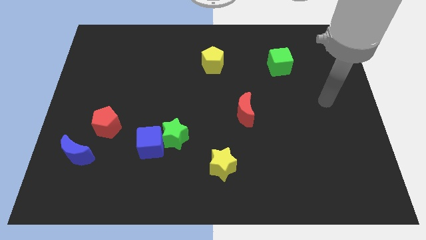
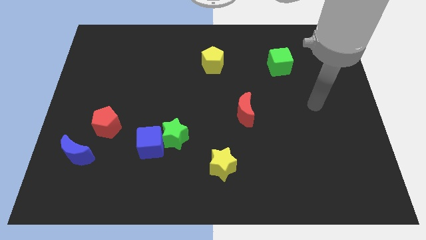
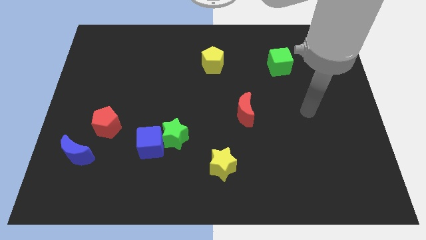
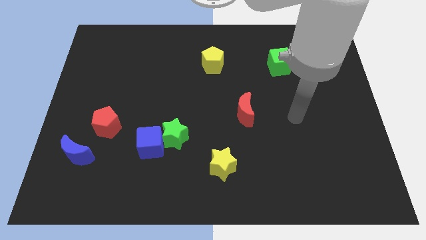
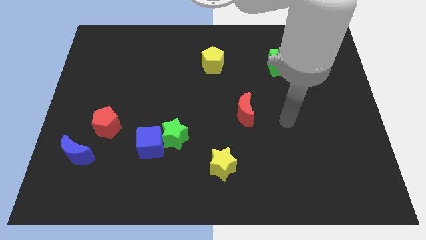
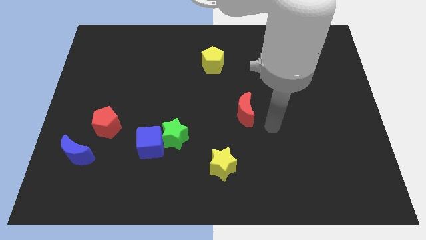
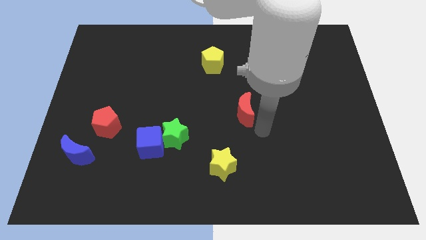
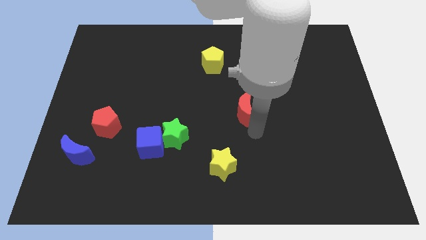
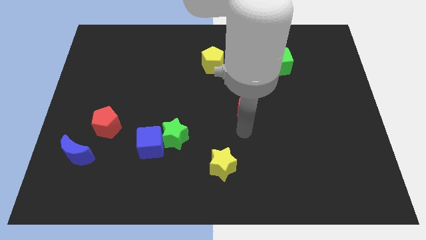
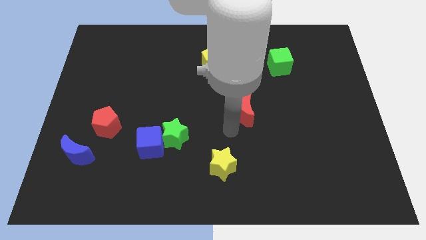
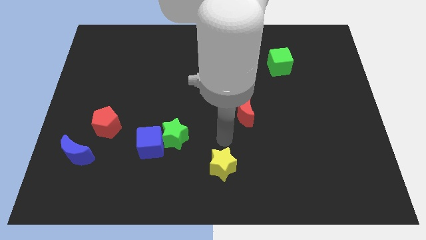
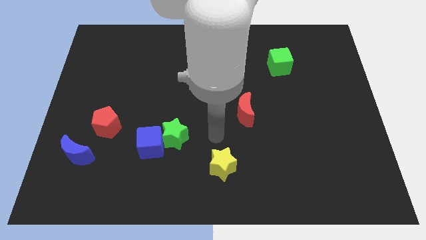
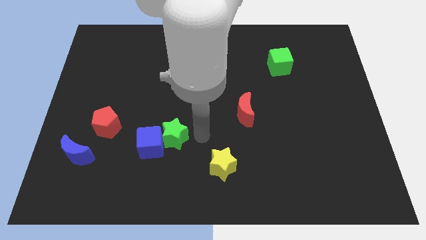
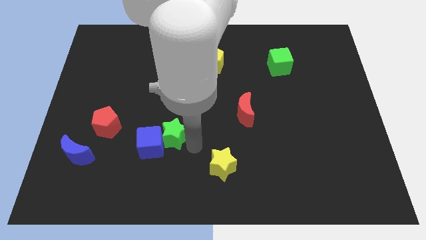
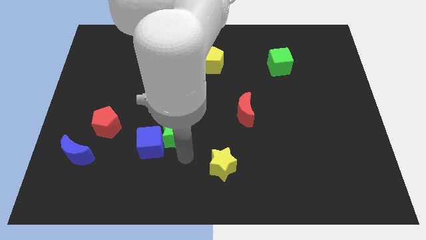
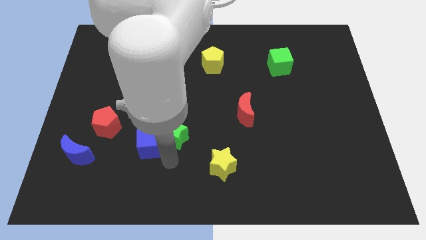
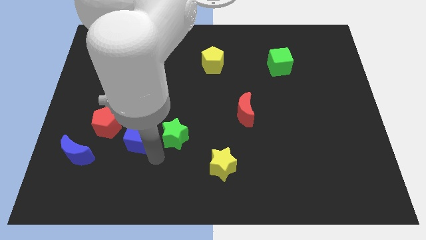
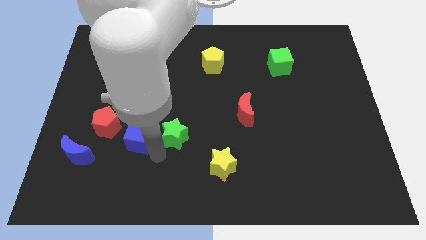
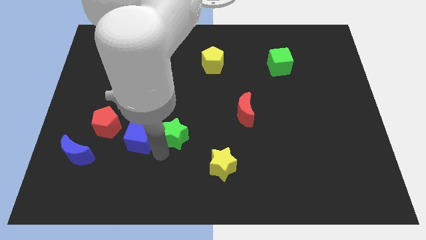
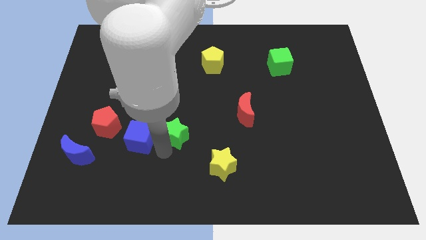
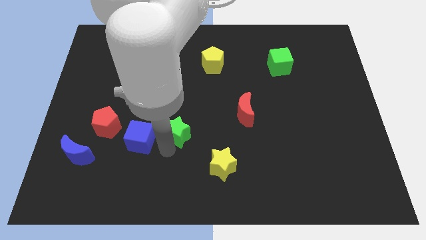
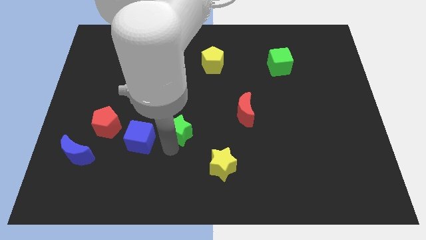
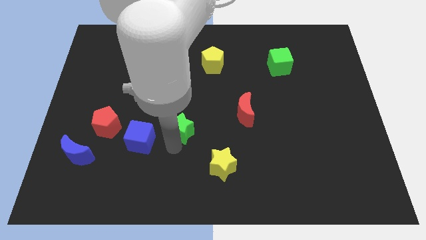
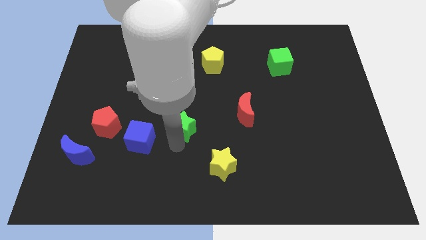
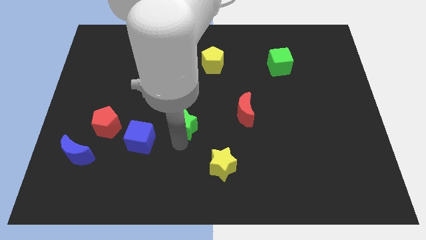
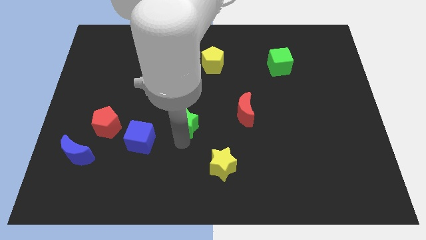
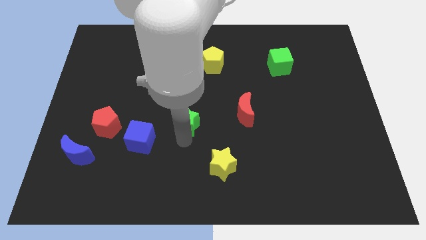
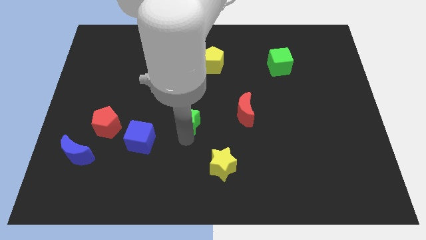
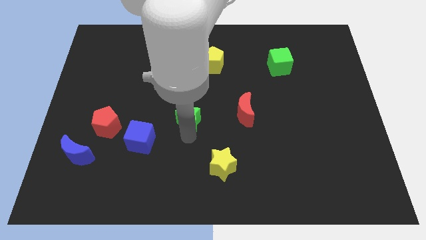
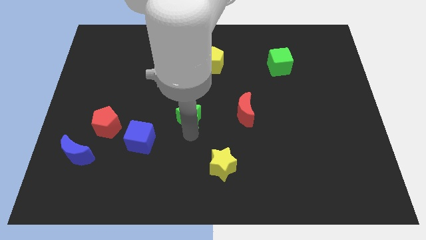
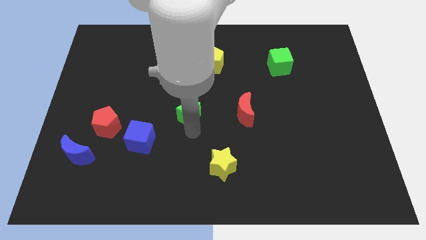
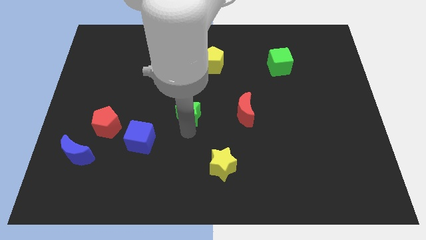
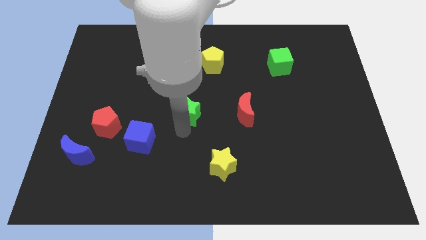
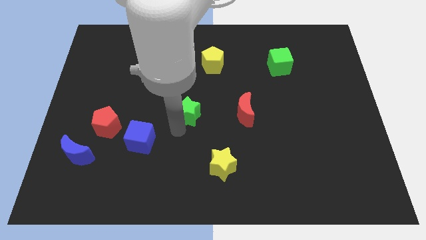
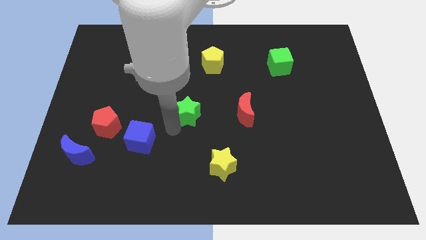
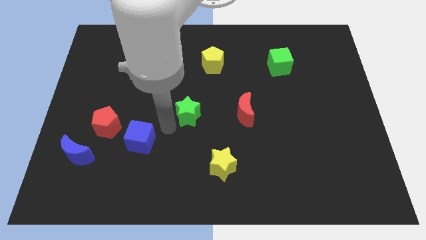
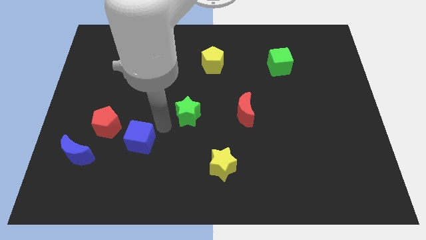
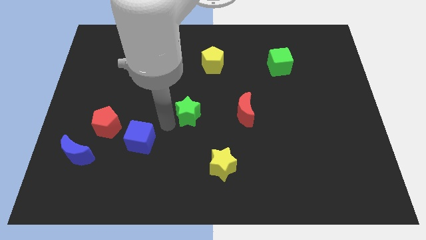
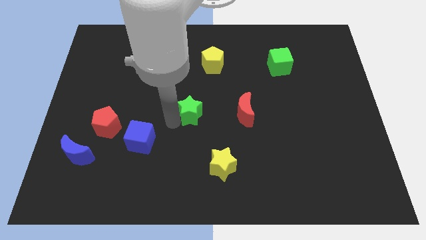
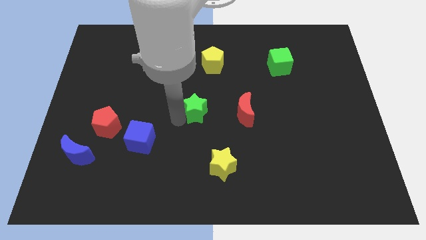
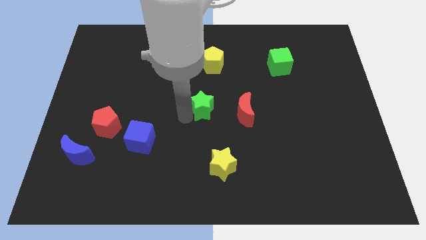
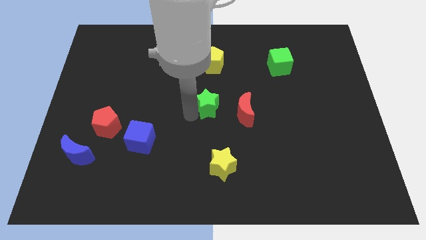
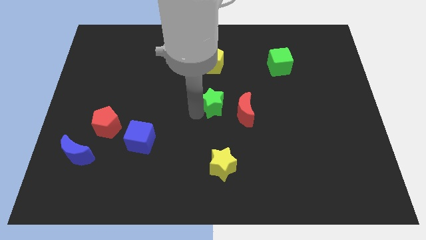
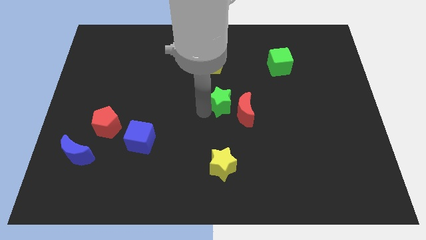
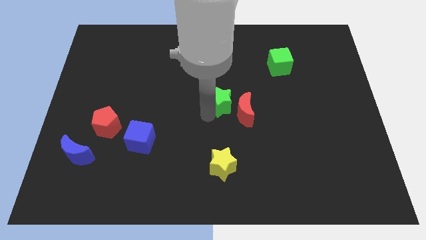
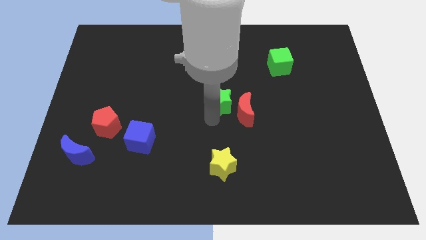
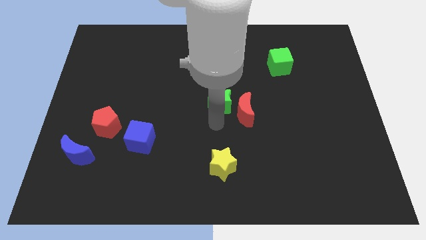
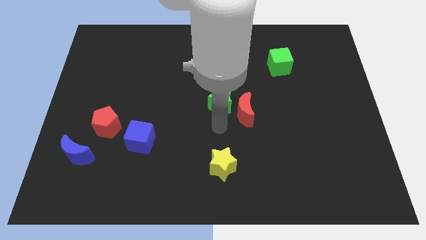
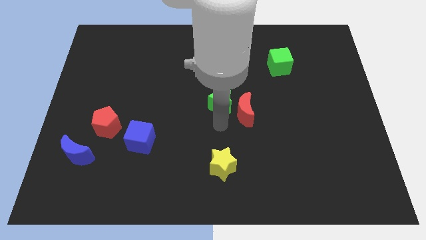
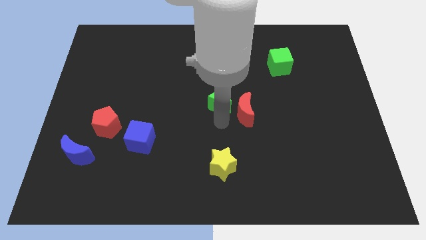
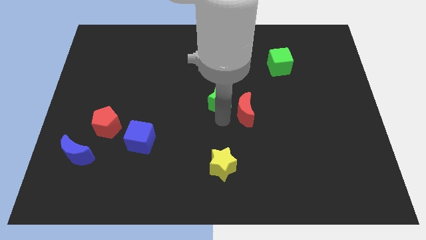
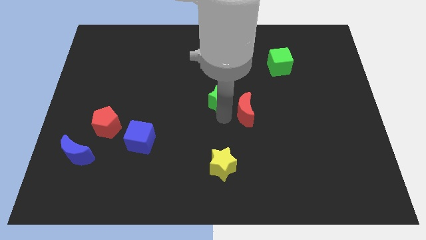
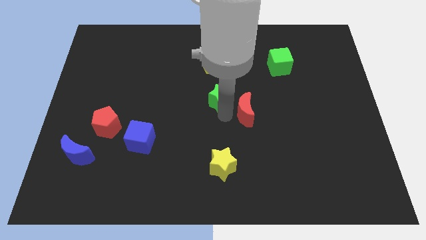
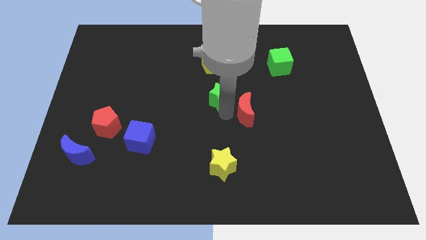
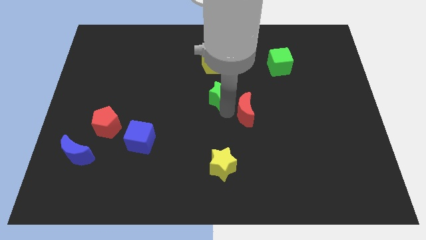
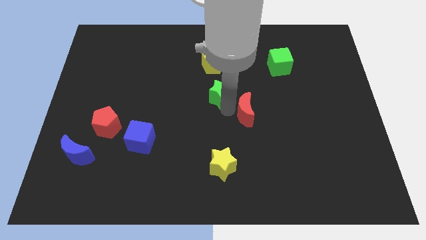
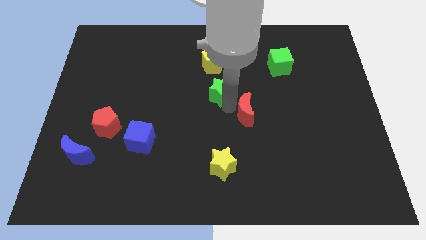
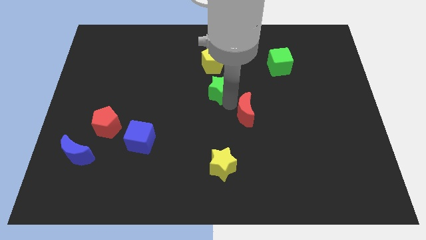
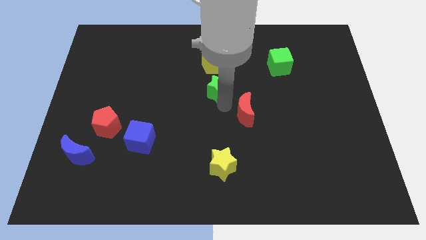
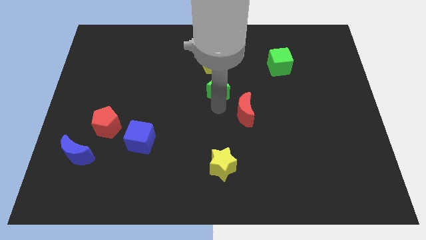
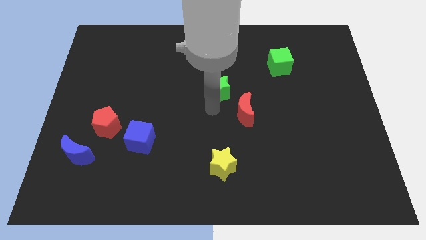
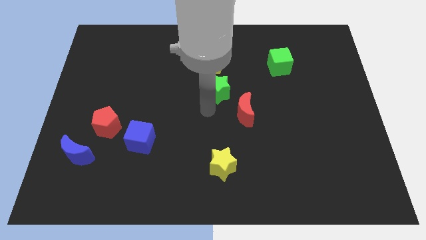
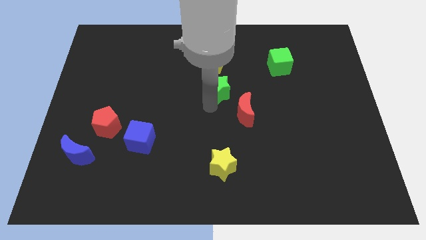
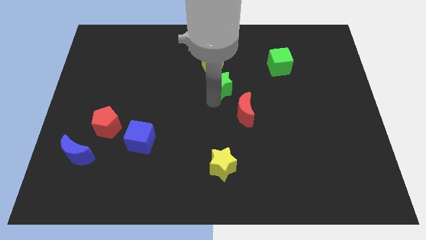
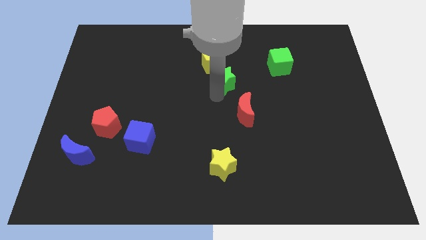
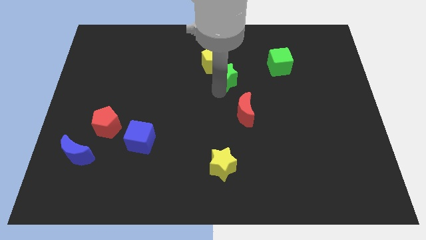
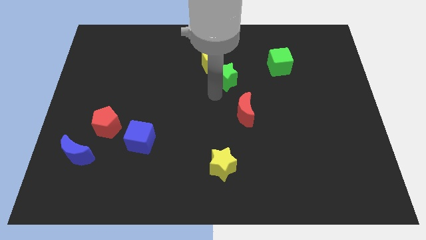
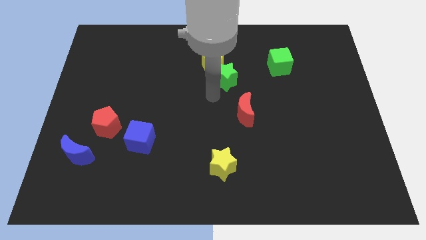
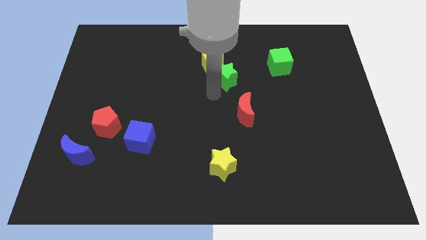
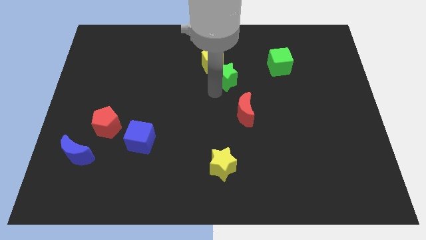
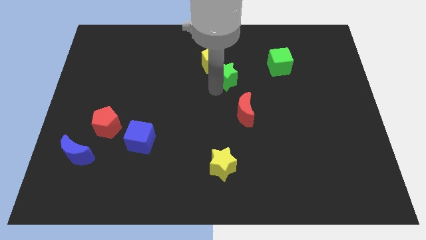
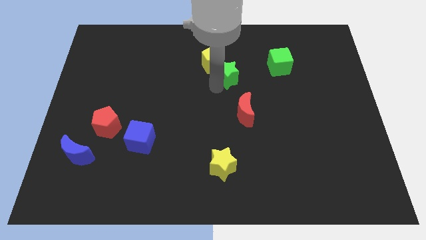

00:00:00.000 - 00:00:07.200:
put the green star just left of the green cube
